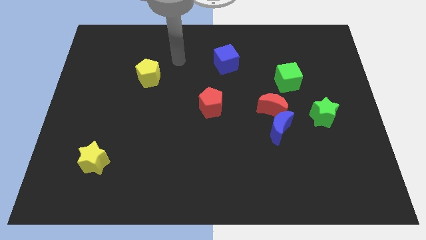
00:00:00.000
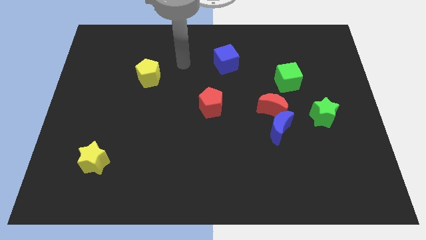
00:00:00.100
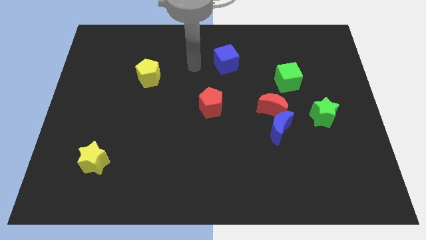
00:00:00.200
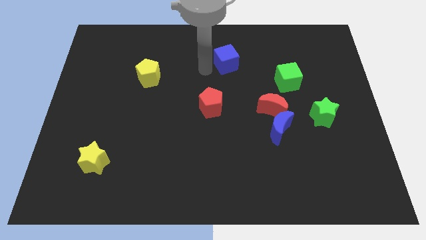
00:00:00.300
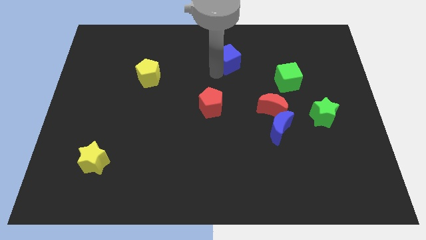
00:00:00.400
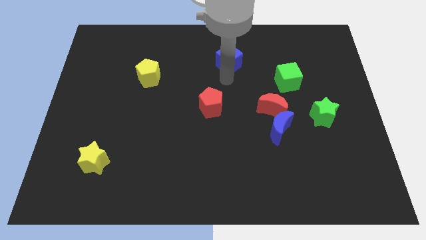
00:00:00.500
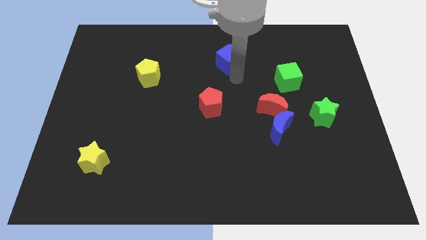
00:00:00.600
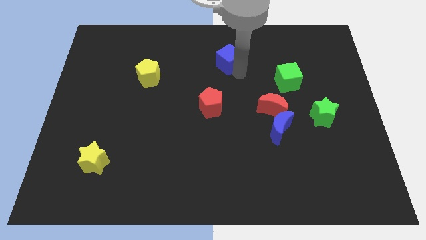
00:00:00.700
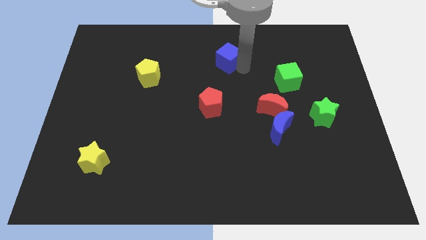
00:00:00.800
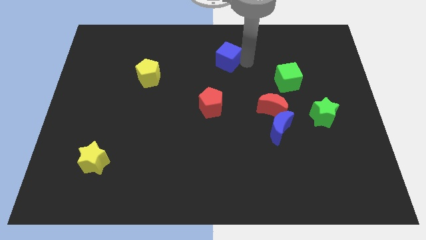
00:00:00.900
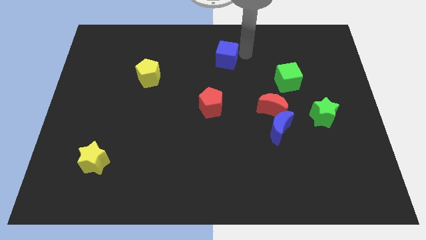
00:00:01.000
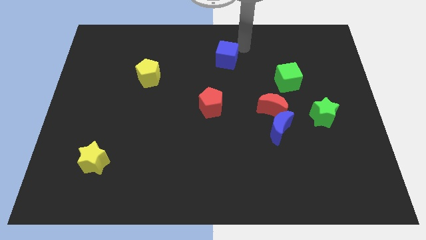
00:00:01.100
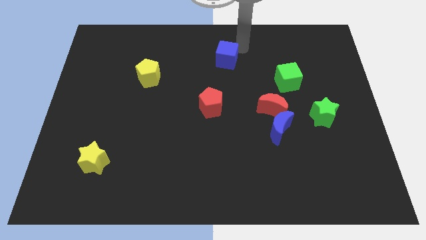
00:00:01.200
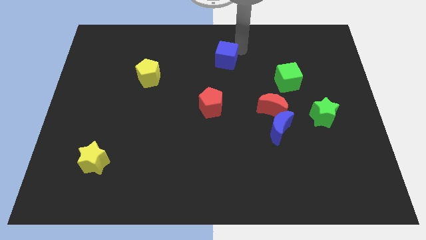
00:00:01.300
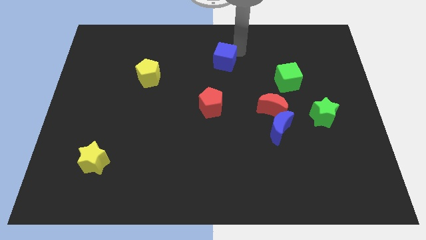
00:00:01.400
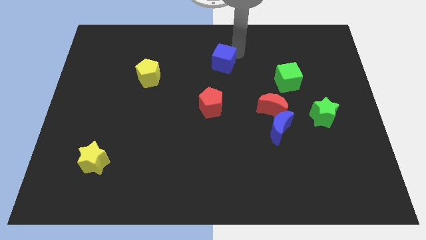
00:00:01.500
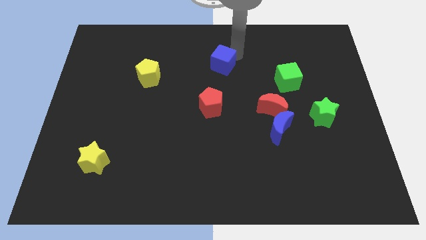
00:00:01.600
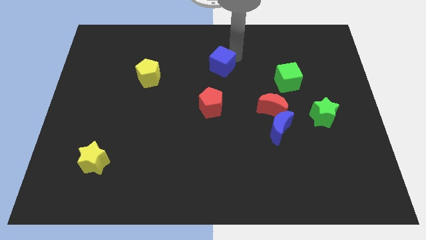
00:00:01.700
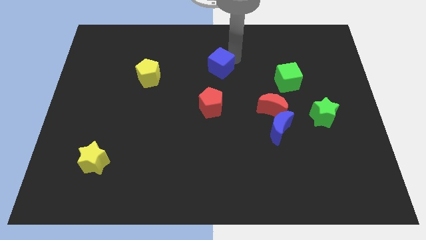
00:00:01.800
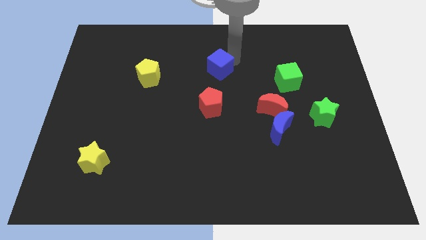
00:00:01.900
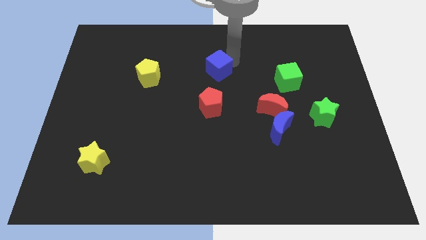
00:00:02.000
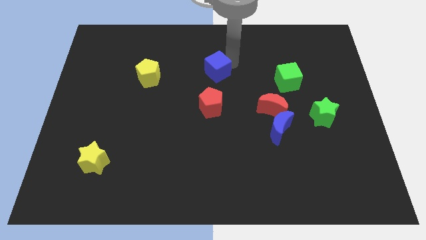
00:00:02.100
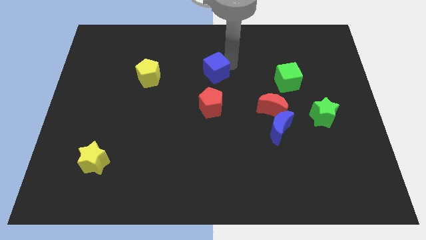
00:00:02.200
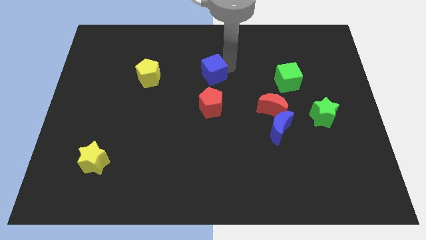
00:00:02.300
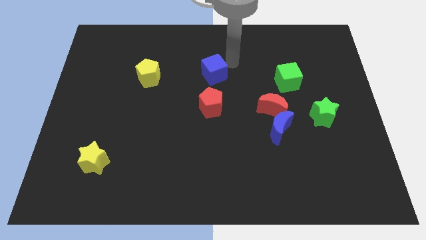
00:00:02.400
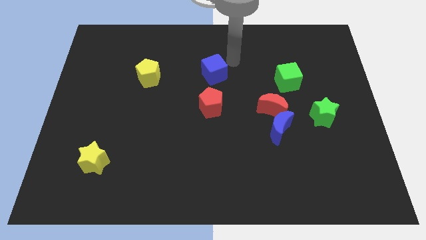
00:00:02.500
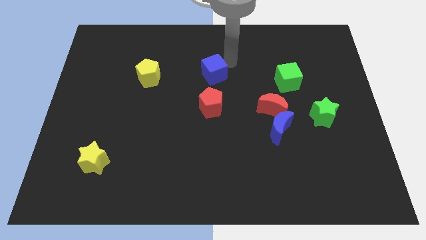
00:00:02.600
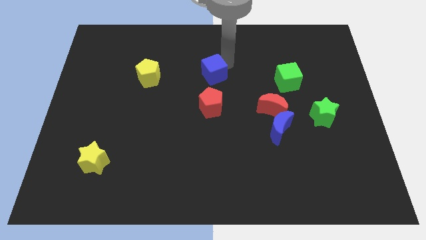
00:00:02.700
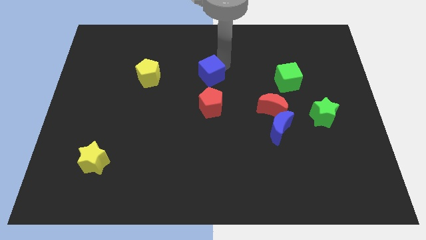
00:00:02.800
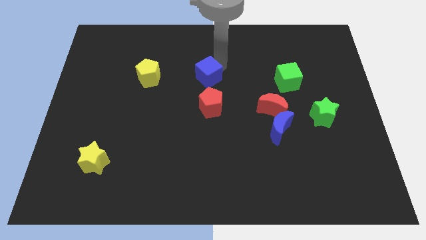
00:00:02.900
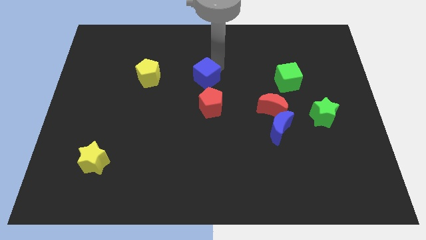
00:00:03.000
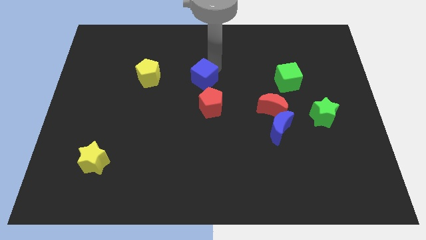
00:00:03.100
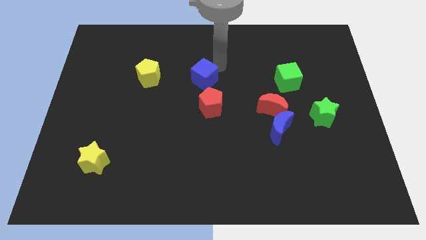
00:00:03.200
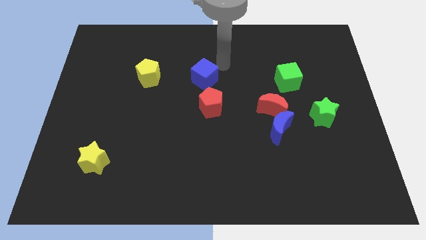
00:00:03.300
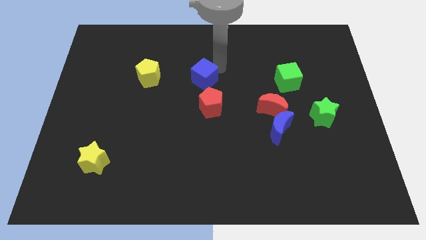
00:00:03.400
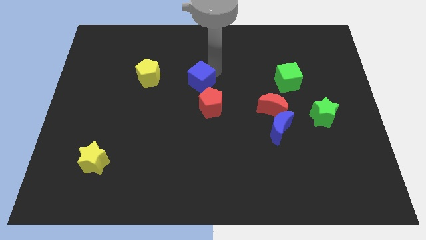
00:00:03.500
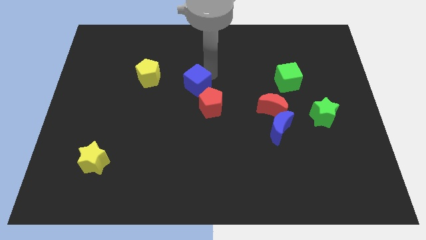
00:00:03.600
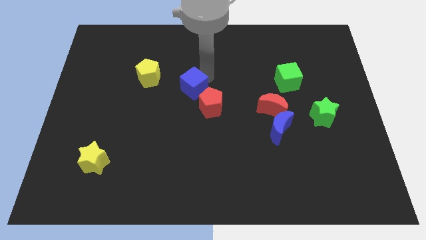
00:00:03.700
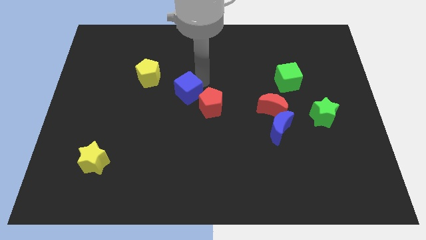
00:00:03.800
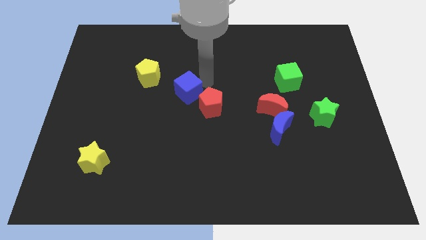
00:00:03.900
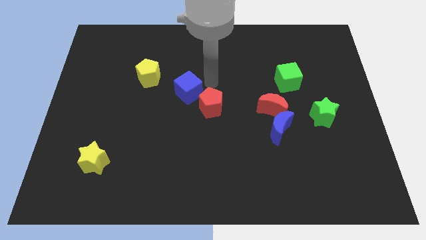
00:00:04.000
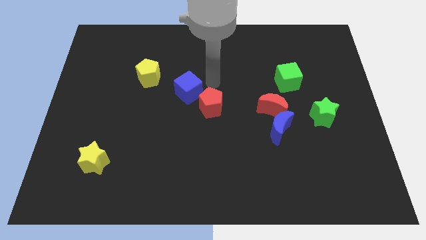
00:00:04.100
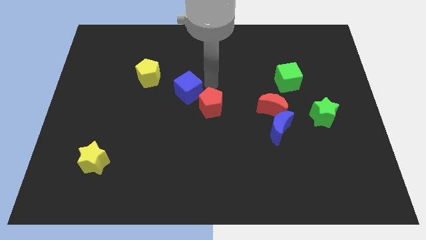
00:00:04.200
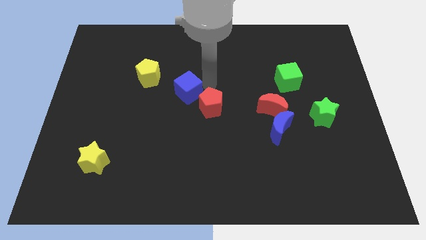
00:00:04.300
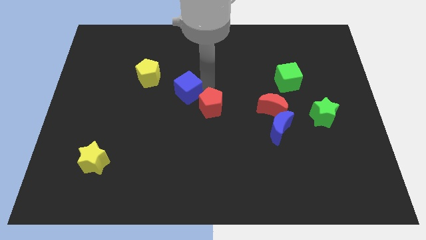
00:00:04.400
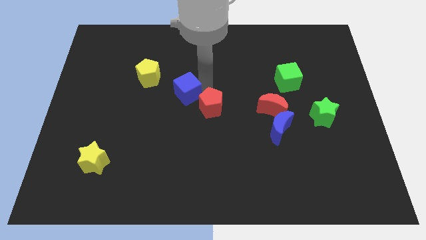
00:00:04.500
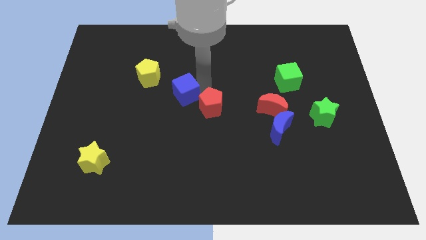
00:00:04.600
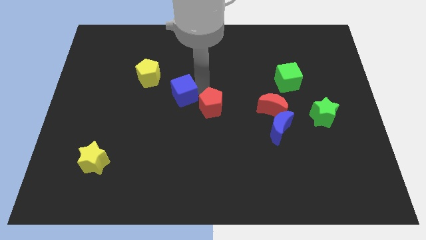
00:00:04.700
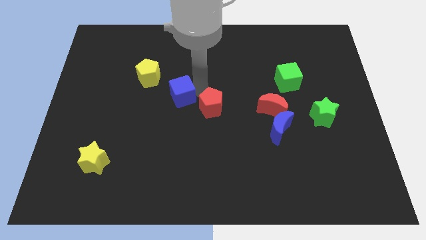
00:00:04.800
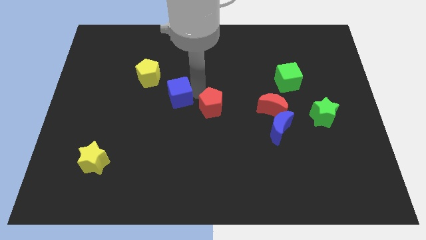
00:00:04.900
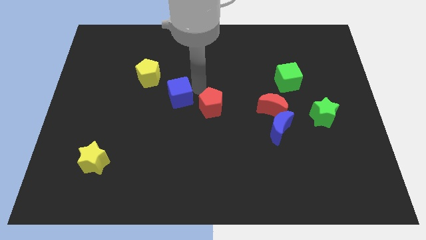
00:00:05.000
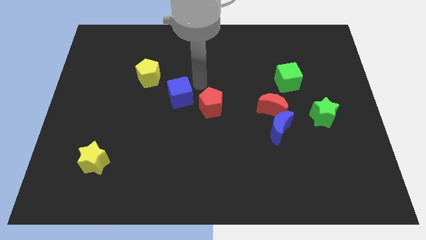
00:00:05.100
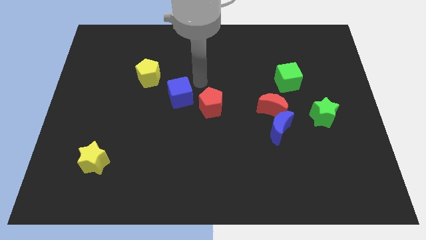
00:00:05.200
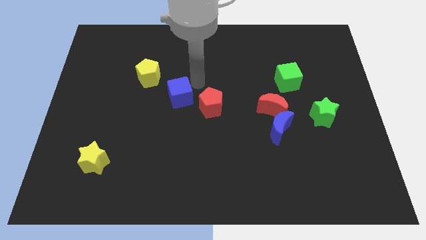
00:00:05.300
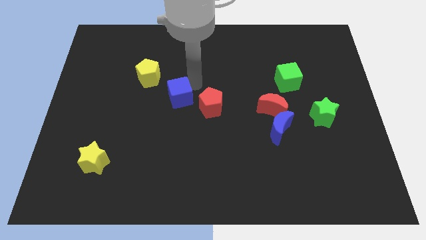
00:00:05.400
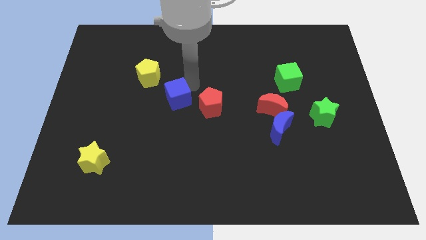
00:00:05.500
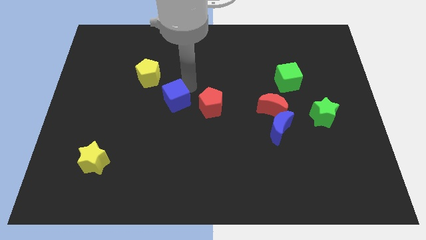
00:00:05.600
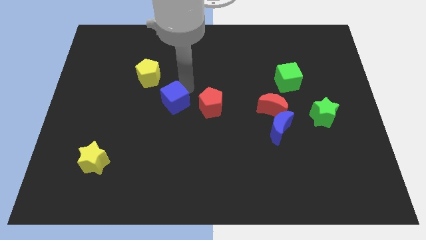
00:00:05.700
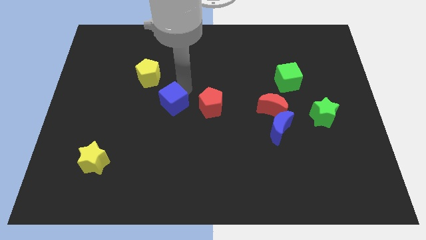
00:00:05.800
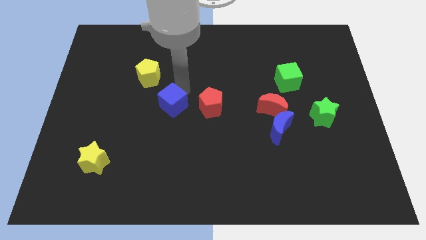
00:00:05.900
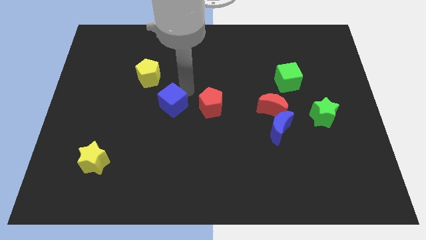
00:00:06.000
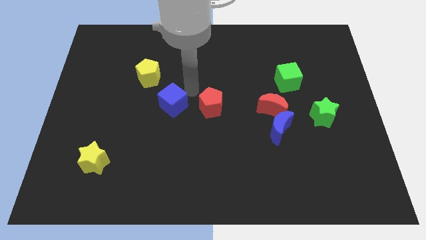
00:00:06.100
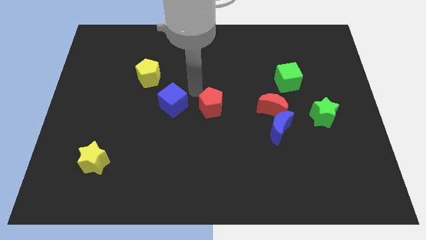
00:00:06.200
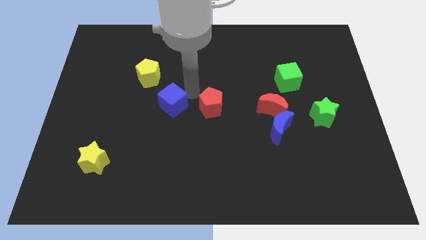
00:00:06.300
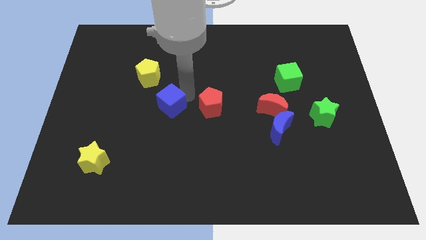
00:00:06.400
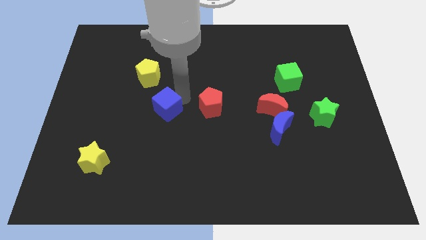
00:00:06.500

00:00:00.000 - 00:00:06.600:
move the blue cube downwards and then to the left

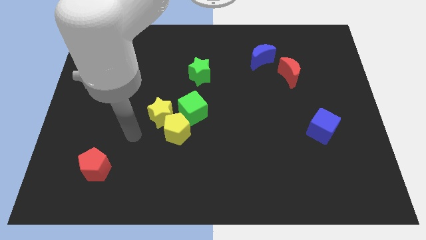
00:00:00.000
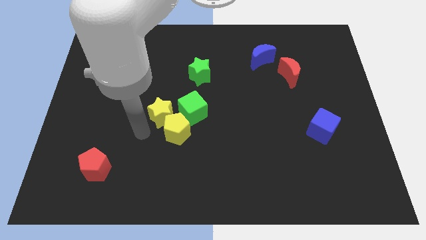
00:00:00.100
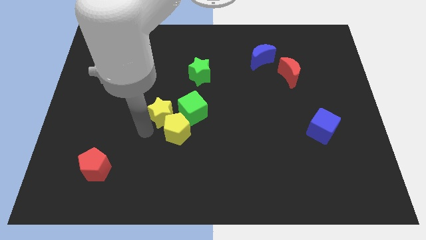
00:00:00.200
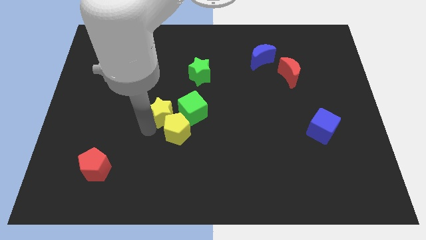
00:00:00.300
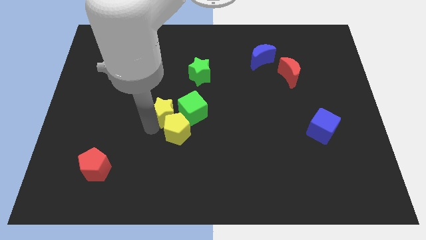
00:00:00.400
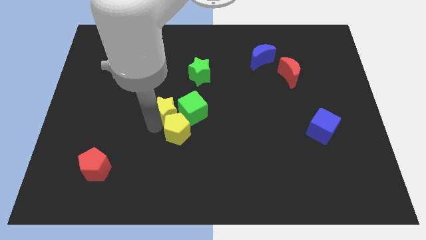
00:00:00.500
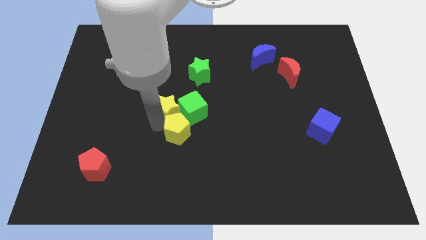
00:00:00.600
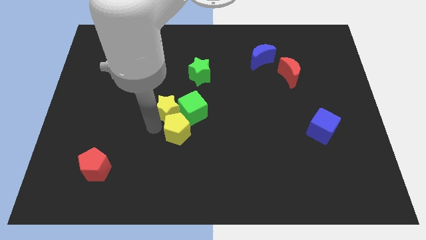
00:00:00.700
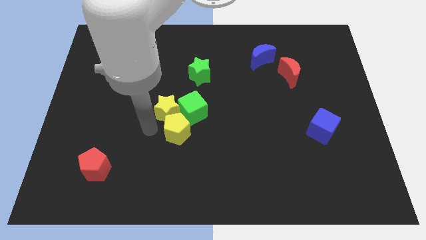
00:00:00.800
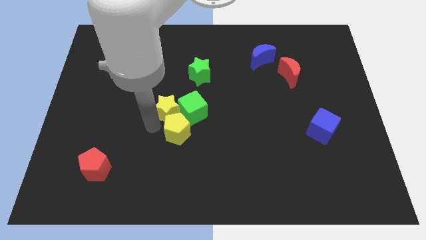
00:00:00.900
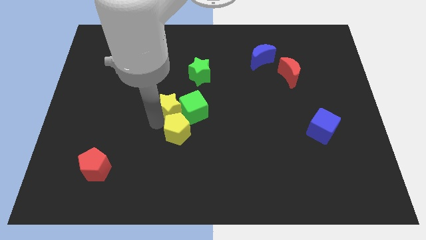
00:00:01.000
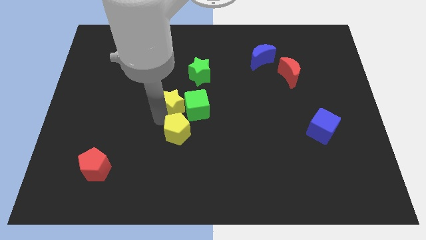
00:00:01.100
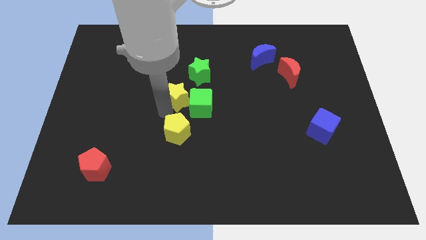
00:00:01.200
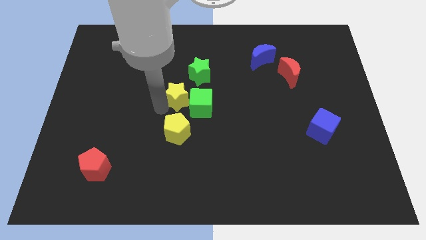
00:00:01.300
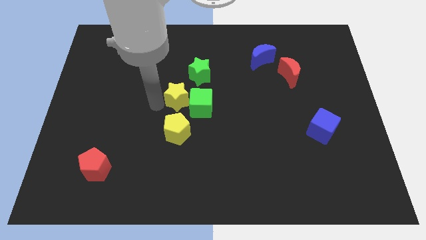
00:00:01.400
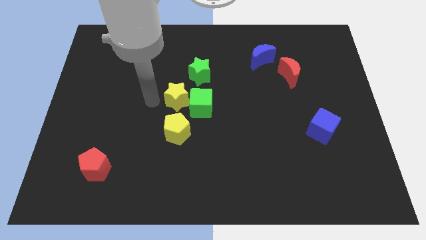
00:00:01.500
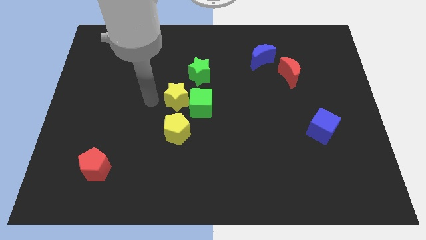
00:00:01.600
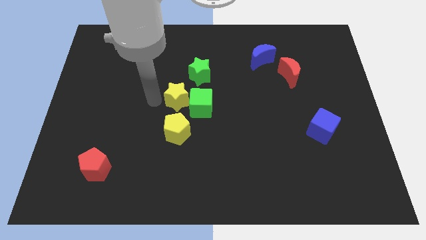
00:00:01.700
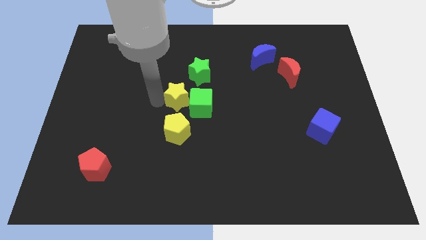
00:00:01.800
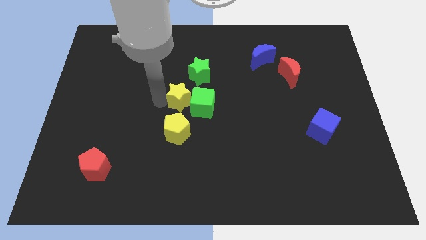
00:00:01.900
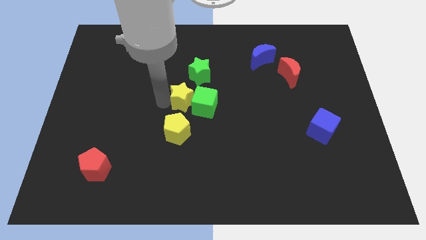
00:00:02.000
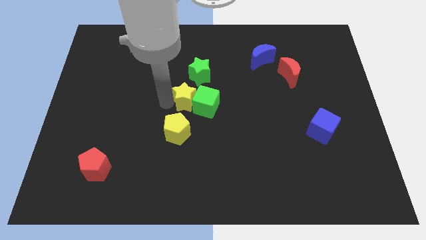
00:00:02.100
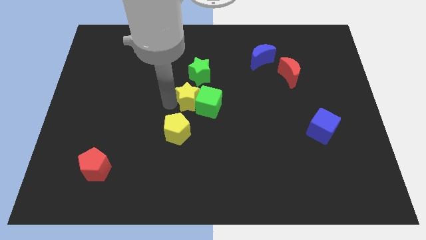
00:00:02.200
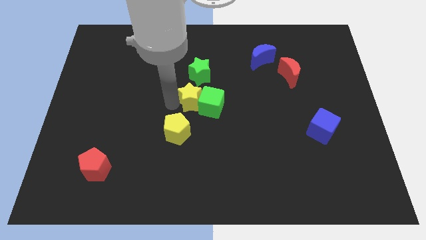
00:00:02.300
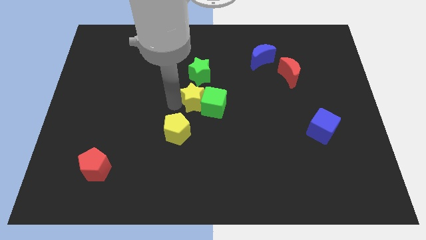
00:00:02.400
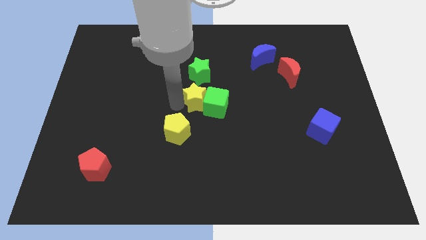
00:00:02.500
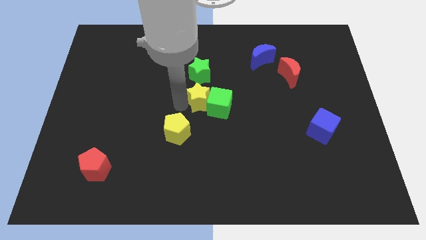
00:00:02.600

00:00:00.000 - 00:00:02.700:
slightly move the yellow star right
